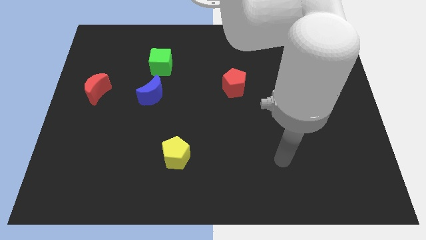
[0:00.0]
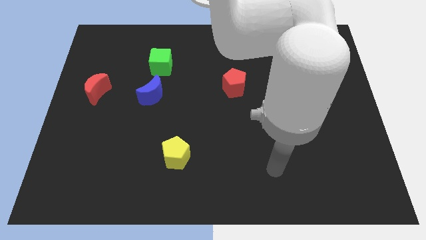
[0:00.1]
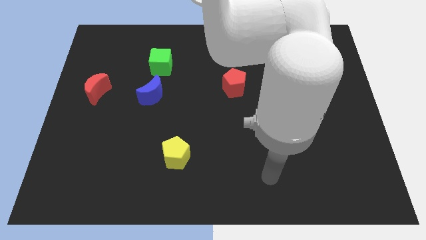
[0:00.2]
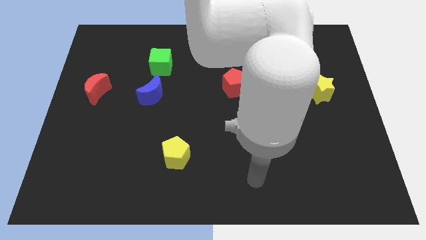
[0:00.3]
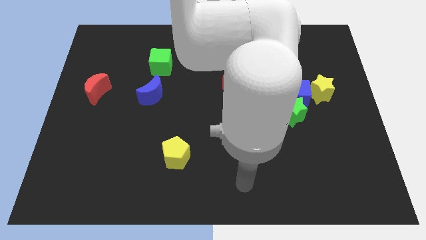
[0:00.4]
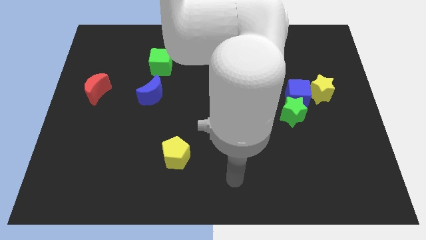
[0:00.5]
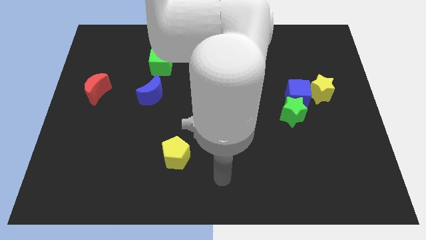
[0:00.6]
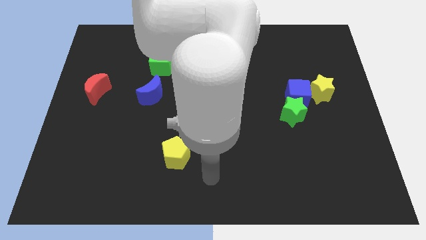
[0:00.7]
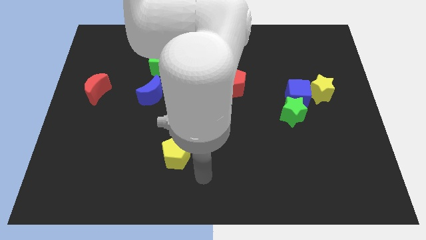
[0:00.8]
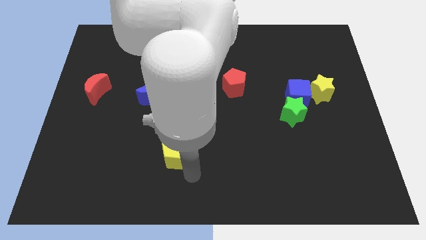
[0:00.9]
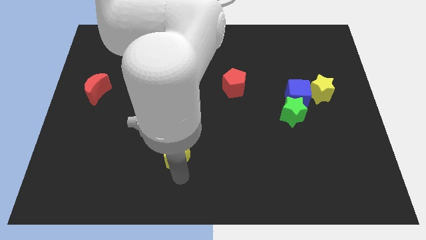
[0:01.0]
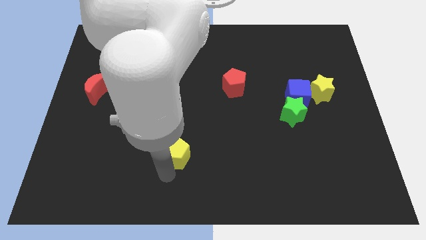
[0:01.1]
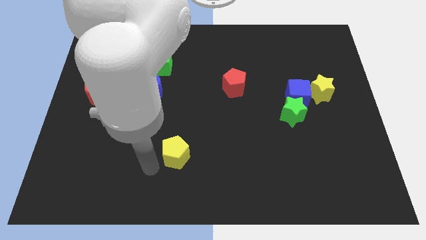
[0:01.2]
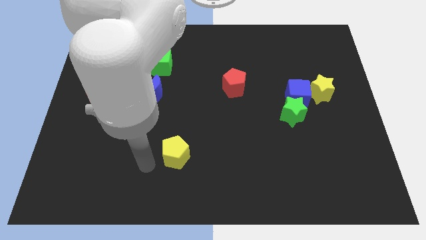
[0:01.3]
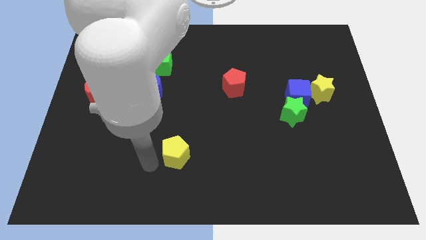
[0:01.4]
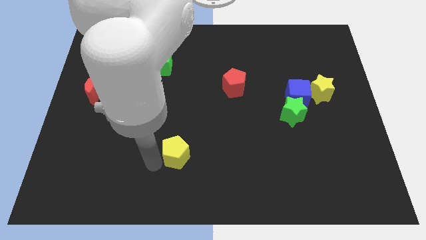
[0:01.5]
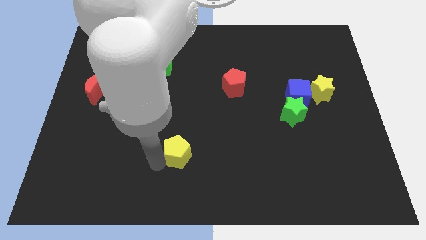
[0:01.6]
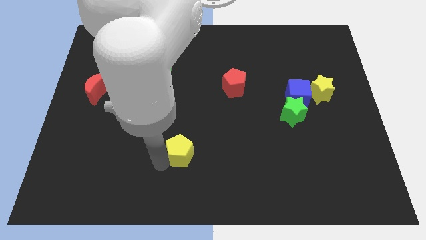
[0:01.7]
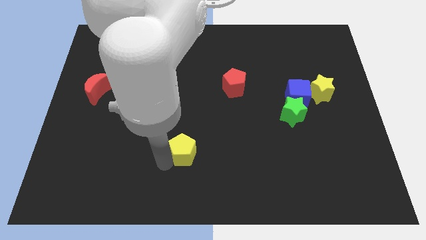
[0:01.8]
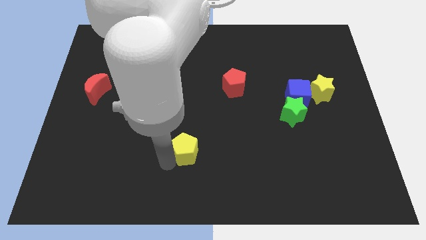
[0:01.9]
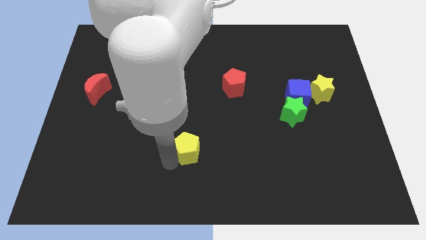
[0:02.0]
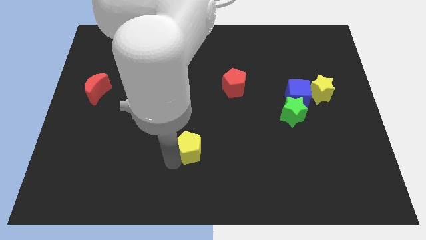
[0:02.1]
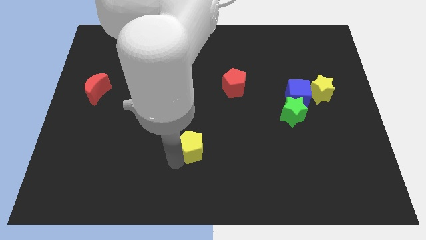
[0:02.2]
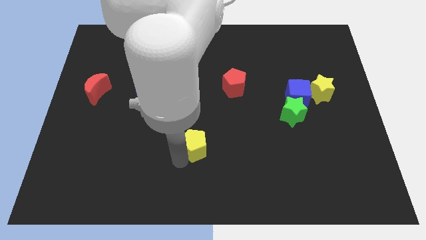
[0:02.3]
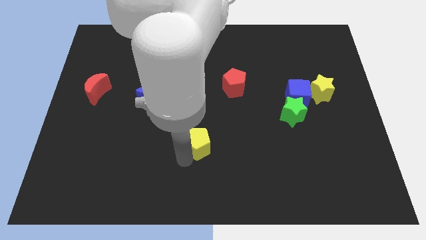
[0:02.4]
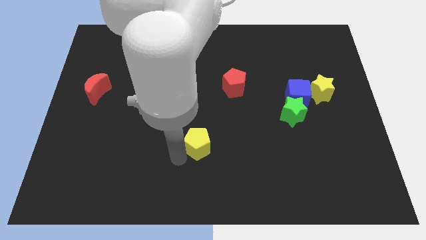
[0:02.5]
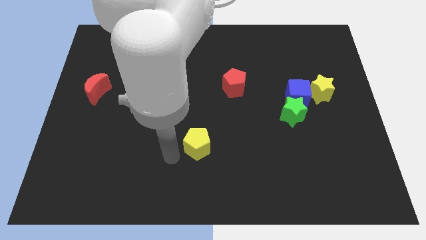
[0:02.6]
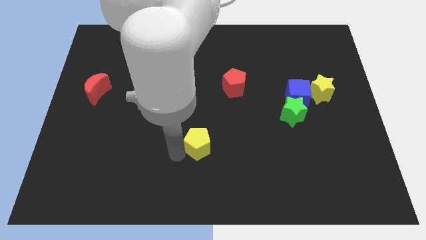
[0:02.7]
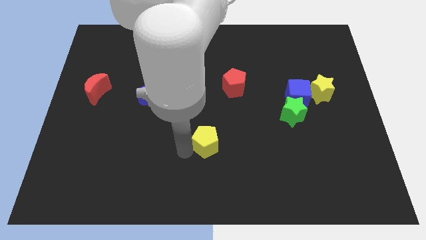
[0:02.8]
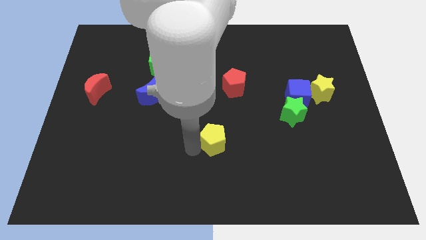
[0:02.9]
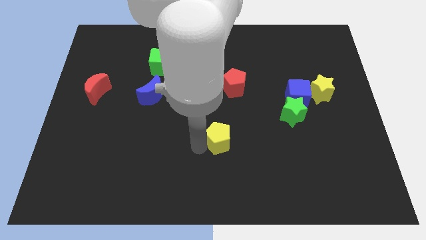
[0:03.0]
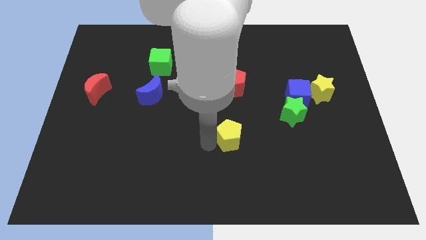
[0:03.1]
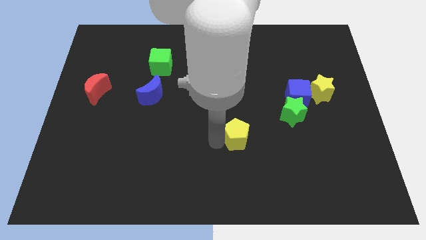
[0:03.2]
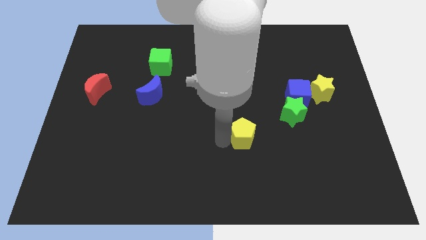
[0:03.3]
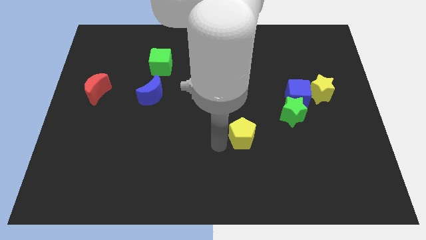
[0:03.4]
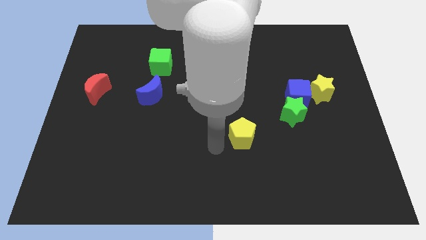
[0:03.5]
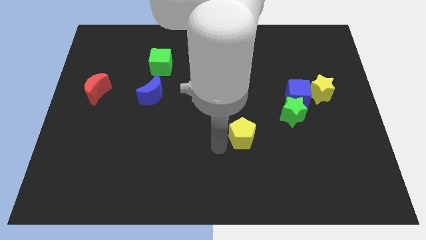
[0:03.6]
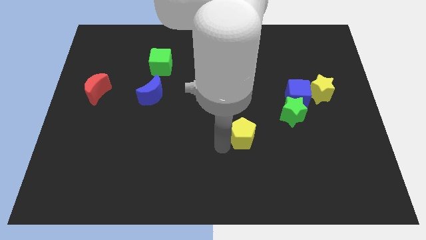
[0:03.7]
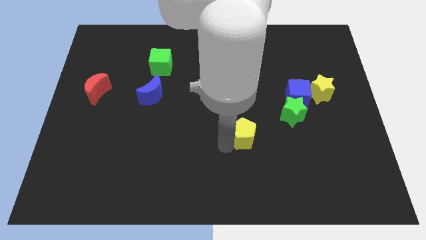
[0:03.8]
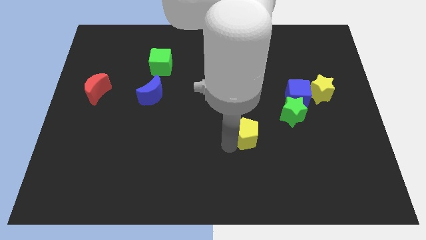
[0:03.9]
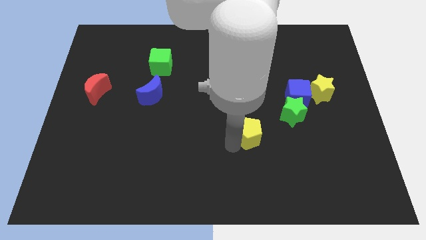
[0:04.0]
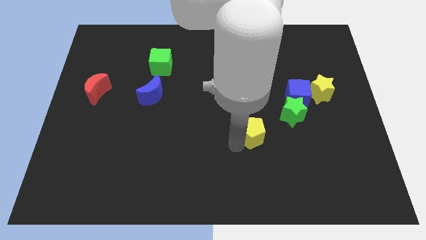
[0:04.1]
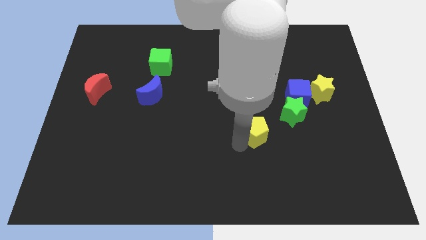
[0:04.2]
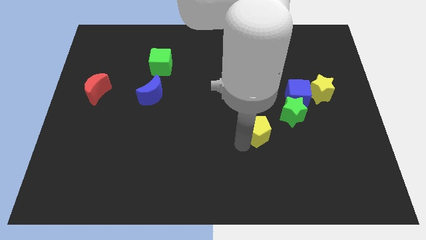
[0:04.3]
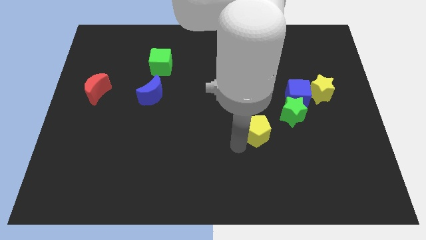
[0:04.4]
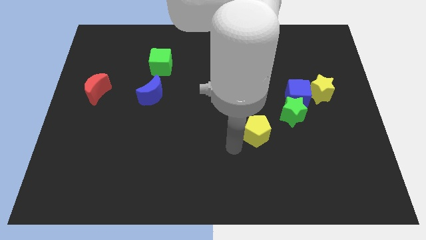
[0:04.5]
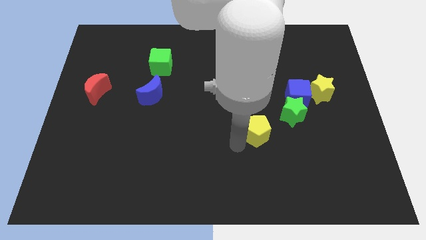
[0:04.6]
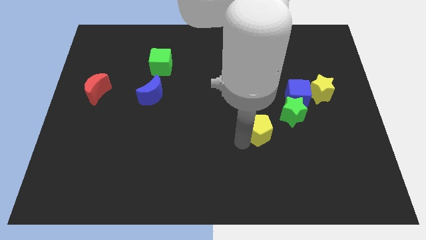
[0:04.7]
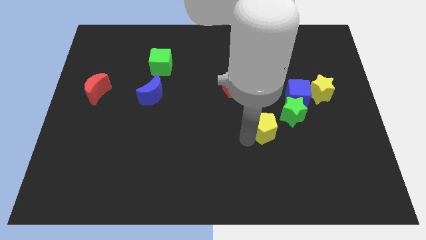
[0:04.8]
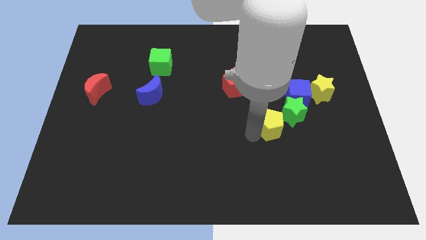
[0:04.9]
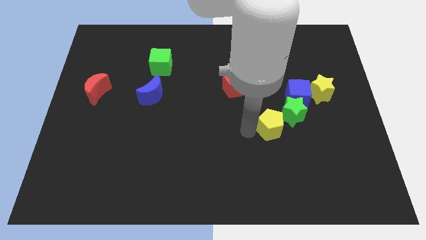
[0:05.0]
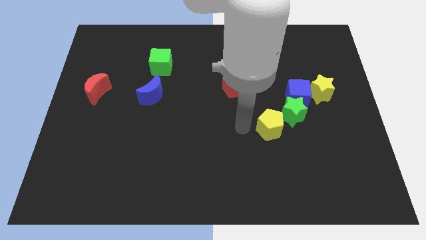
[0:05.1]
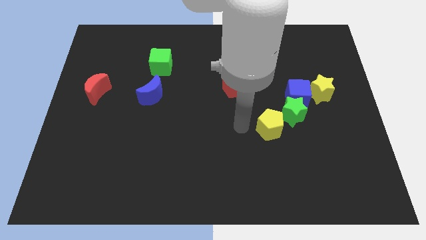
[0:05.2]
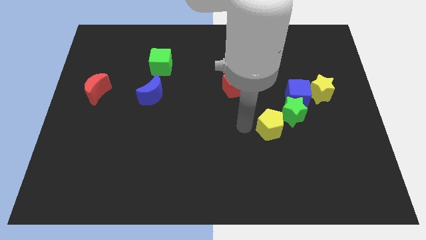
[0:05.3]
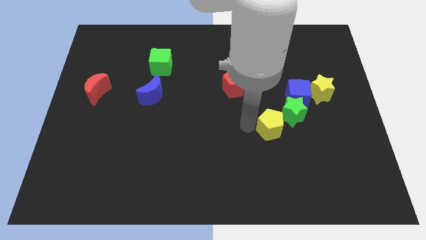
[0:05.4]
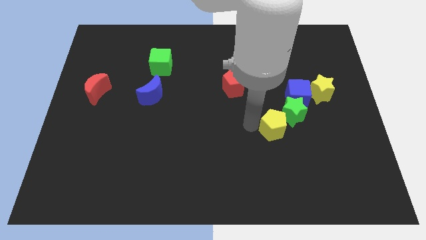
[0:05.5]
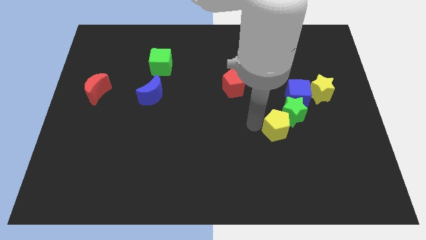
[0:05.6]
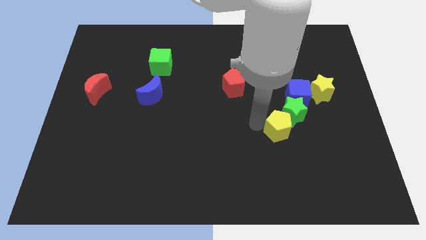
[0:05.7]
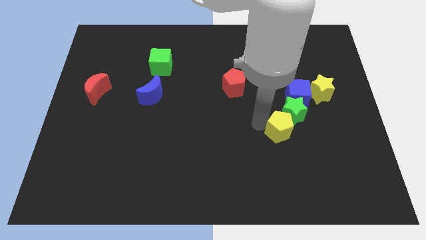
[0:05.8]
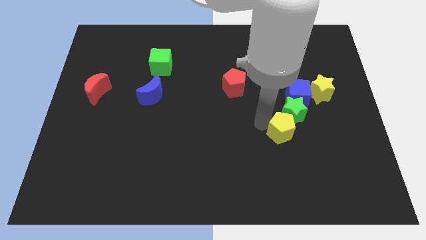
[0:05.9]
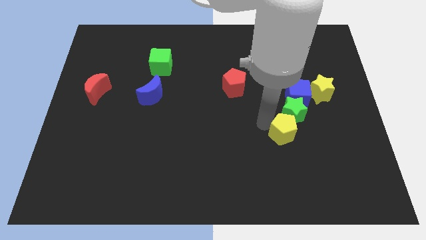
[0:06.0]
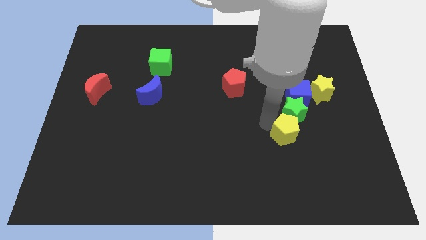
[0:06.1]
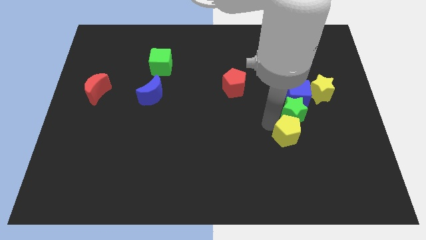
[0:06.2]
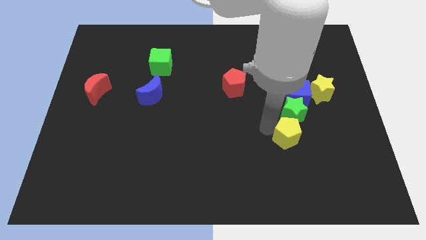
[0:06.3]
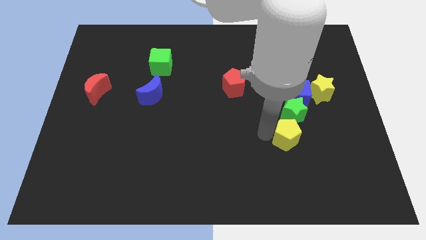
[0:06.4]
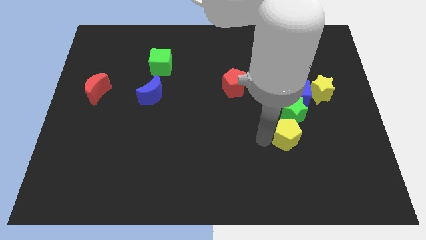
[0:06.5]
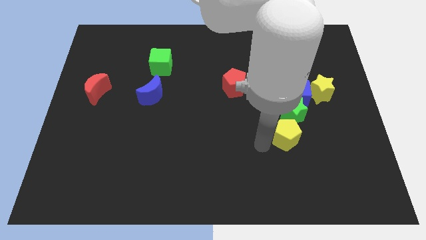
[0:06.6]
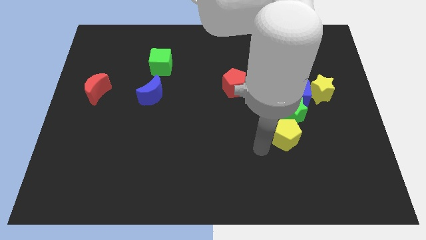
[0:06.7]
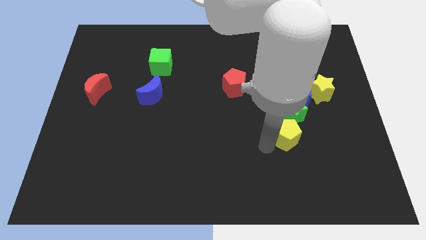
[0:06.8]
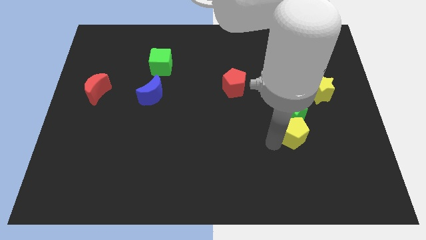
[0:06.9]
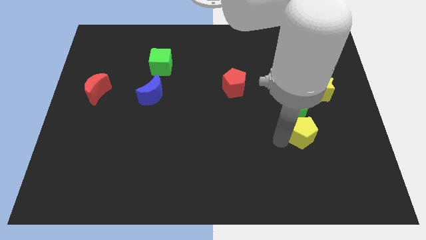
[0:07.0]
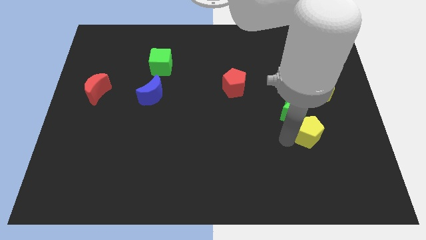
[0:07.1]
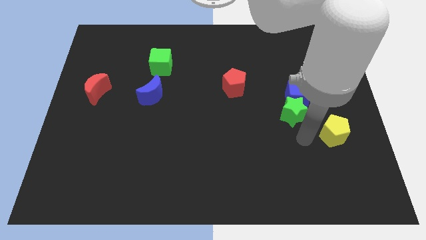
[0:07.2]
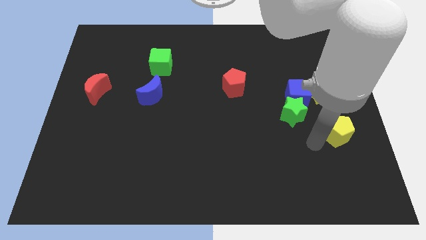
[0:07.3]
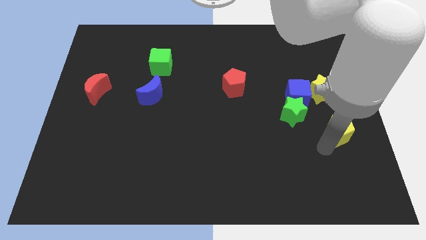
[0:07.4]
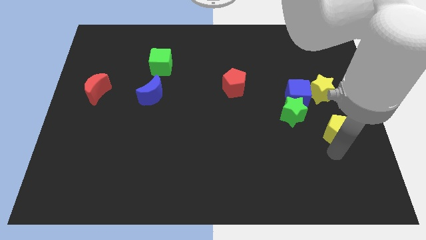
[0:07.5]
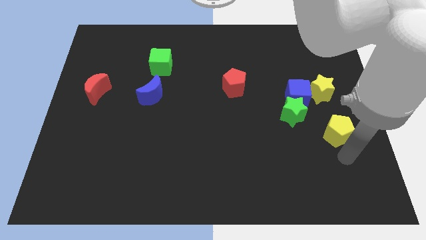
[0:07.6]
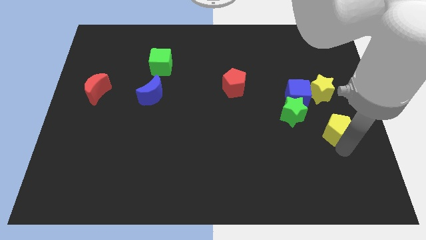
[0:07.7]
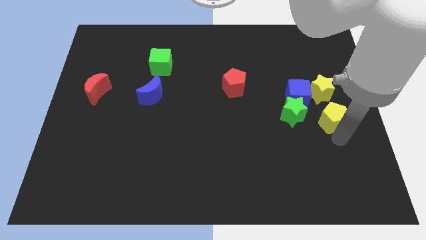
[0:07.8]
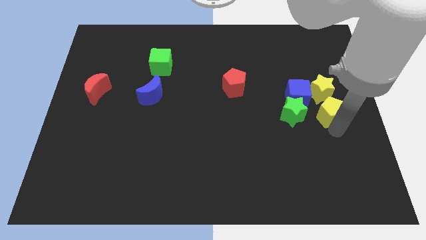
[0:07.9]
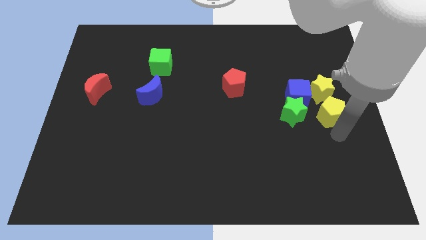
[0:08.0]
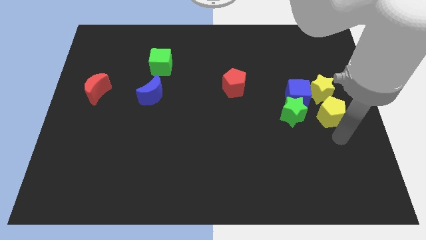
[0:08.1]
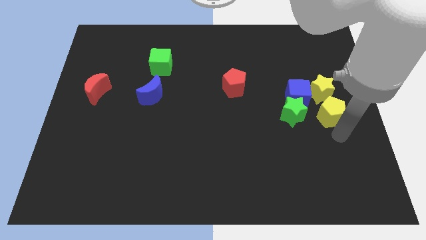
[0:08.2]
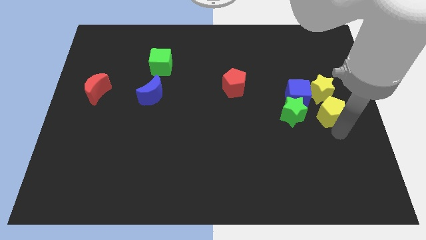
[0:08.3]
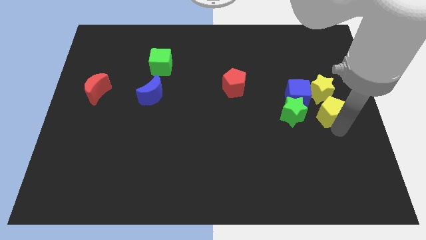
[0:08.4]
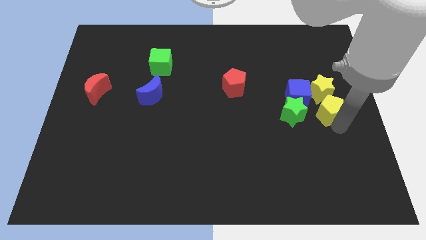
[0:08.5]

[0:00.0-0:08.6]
move the yellow pentagon to the yellow star
